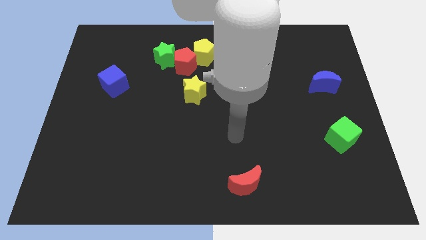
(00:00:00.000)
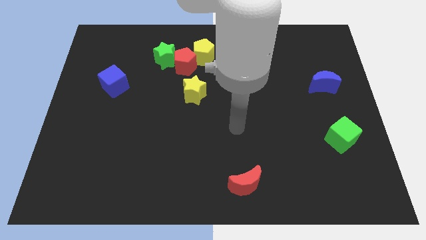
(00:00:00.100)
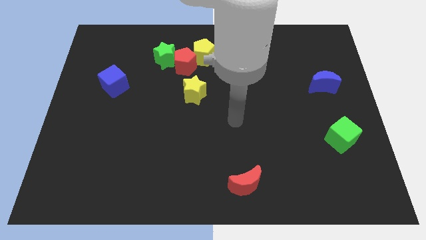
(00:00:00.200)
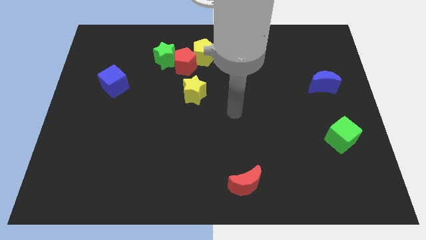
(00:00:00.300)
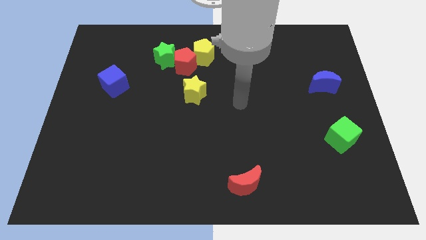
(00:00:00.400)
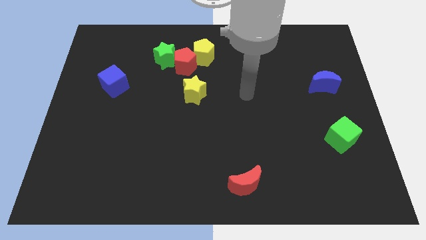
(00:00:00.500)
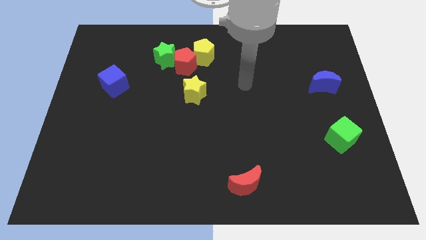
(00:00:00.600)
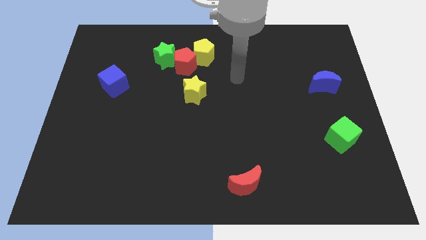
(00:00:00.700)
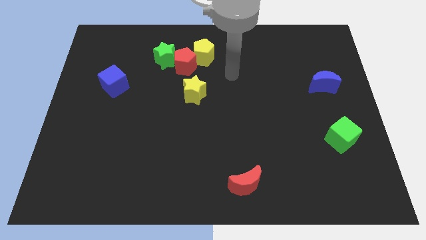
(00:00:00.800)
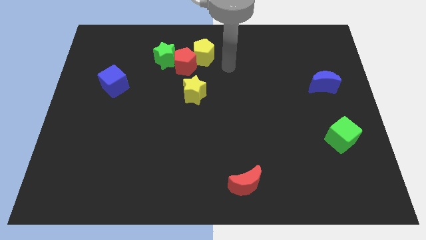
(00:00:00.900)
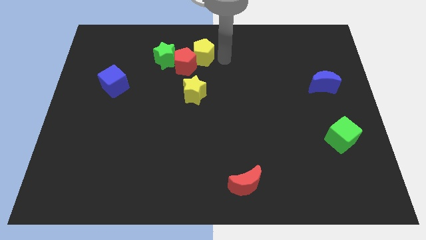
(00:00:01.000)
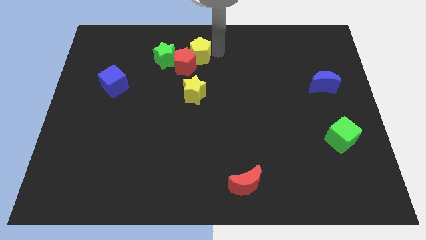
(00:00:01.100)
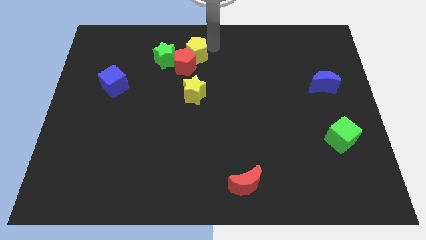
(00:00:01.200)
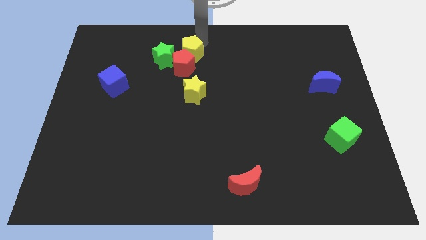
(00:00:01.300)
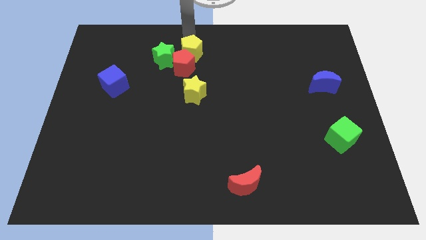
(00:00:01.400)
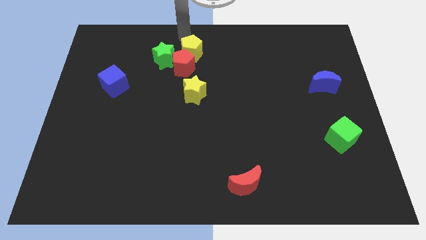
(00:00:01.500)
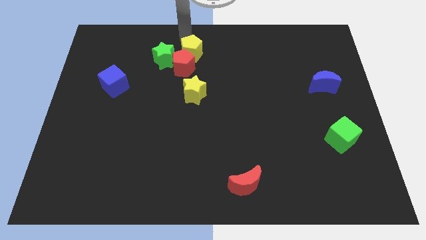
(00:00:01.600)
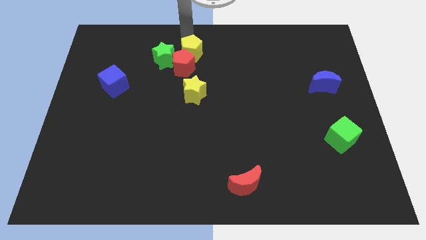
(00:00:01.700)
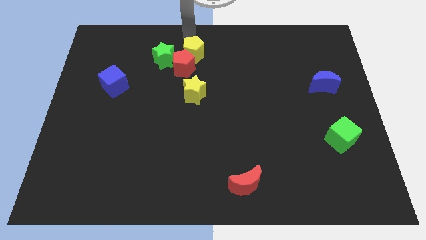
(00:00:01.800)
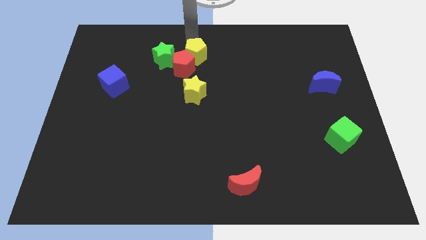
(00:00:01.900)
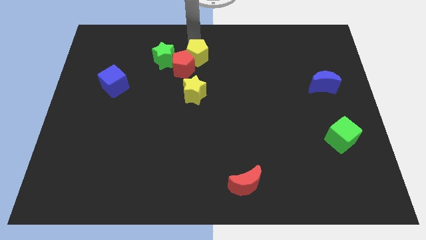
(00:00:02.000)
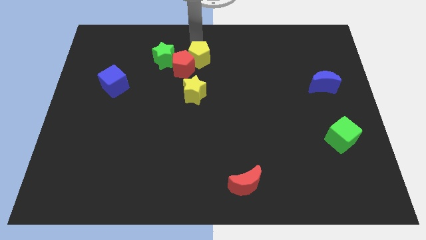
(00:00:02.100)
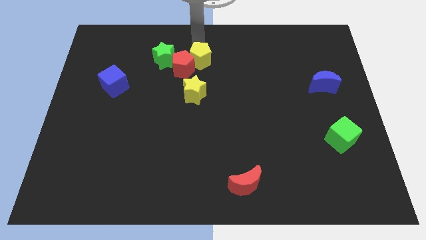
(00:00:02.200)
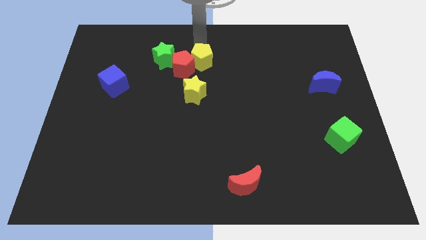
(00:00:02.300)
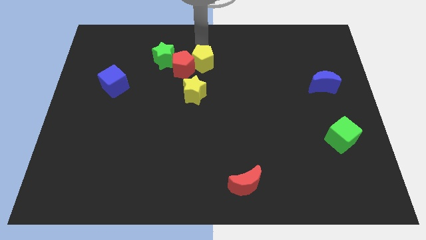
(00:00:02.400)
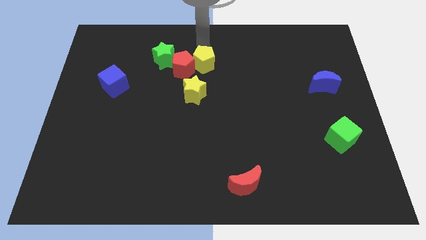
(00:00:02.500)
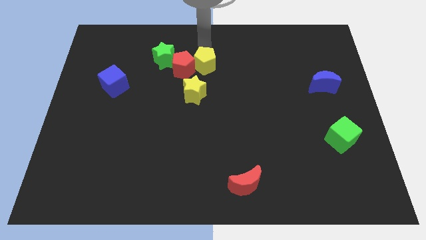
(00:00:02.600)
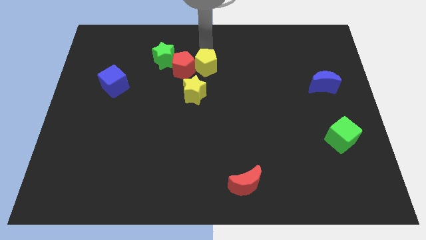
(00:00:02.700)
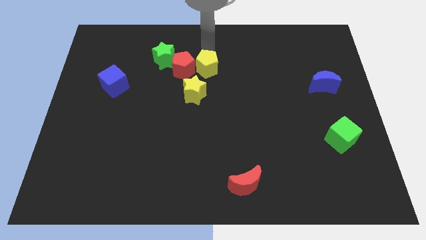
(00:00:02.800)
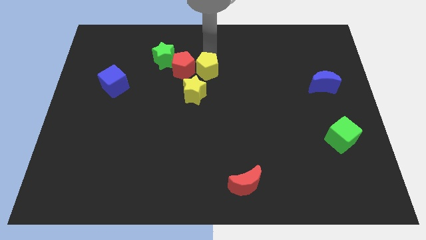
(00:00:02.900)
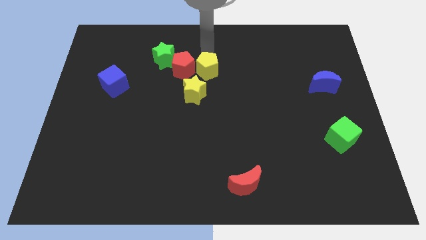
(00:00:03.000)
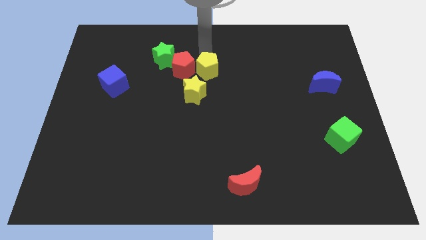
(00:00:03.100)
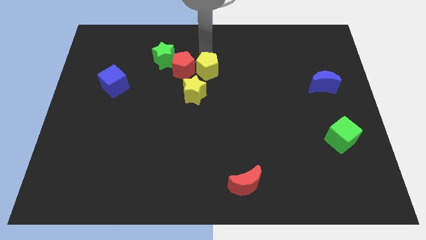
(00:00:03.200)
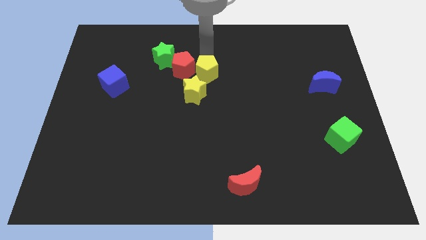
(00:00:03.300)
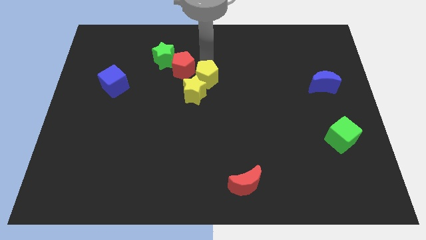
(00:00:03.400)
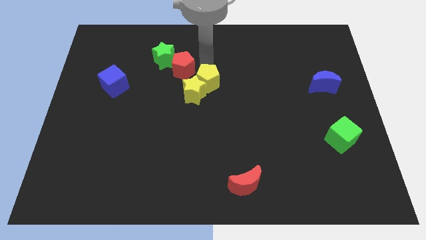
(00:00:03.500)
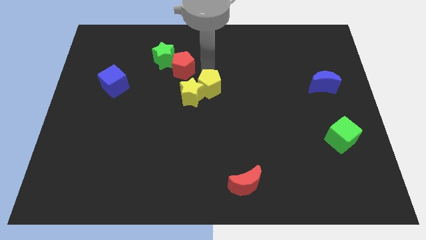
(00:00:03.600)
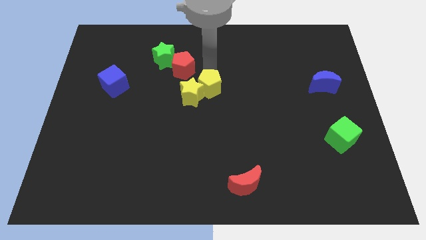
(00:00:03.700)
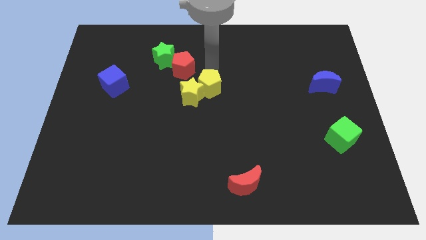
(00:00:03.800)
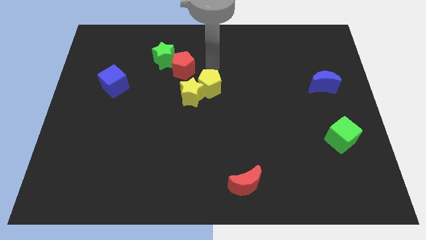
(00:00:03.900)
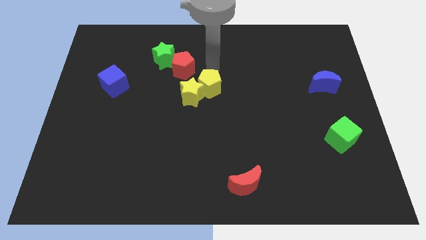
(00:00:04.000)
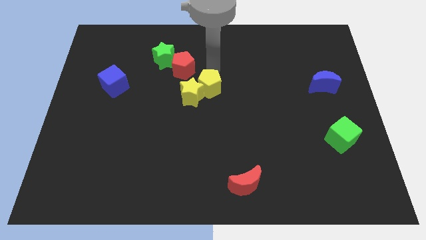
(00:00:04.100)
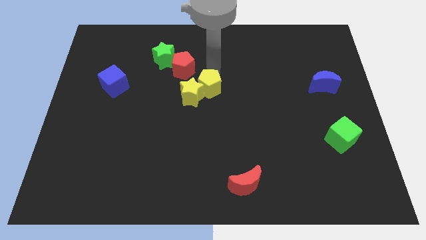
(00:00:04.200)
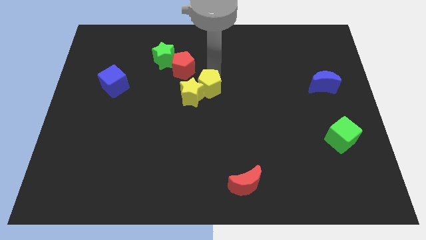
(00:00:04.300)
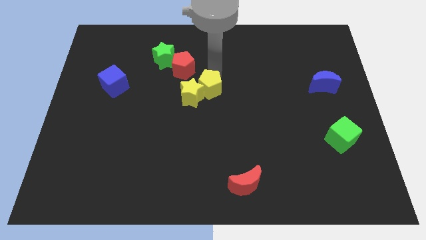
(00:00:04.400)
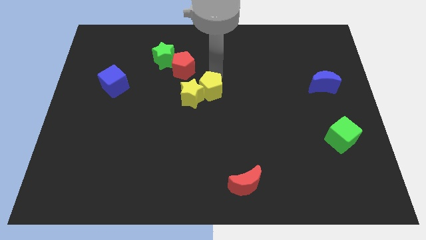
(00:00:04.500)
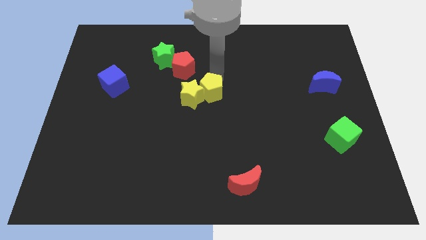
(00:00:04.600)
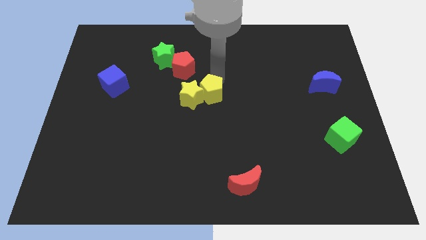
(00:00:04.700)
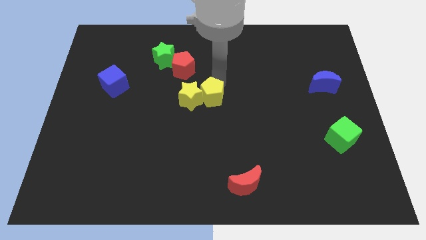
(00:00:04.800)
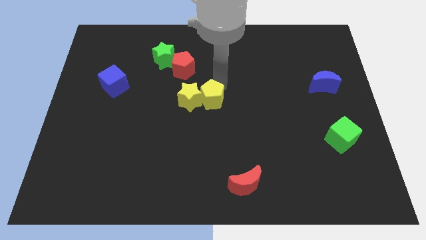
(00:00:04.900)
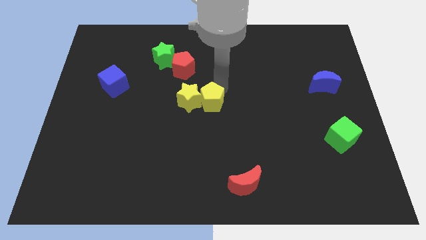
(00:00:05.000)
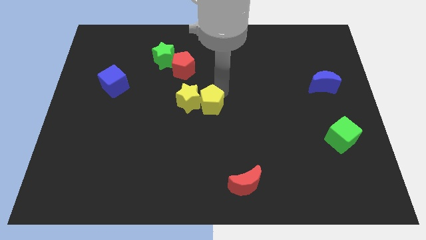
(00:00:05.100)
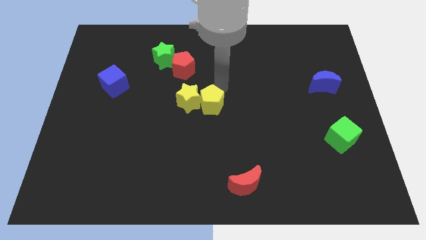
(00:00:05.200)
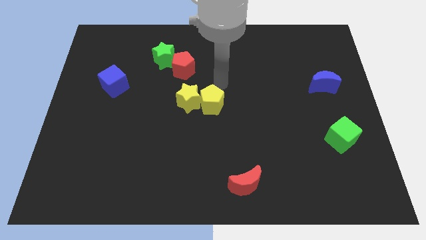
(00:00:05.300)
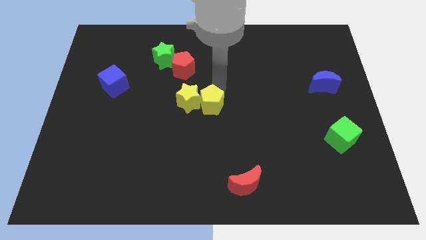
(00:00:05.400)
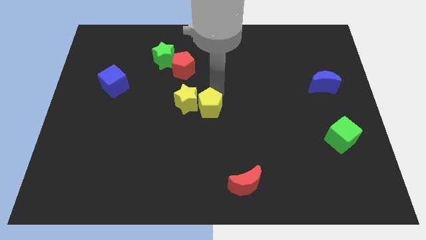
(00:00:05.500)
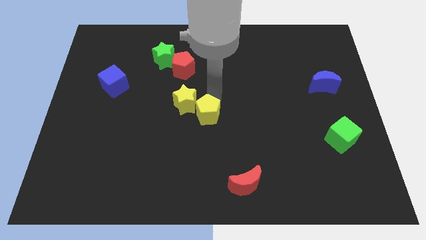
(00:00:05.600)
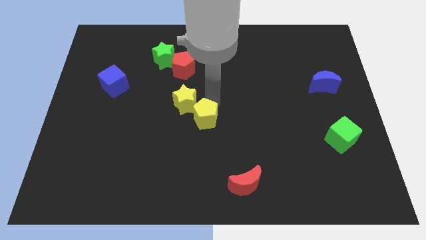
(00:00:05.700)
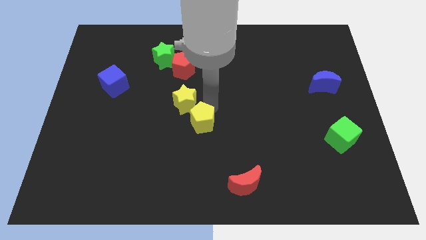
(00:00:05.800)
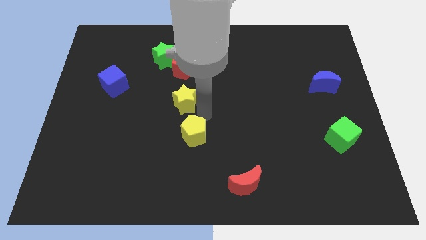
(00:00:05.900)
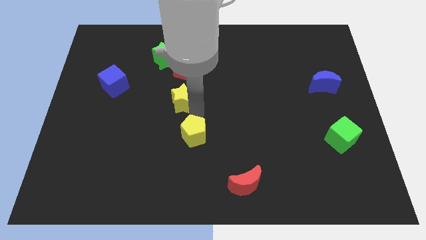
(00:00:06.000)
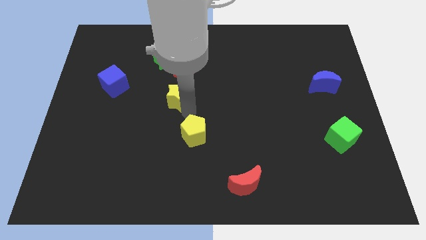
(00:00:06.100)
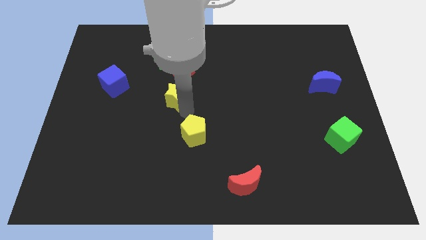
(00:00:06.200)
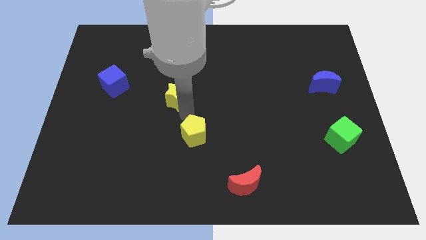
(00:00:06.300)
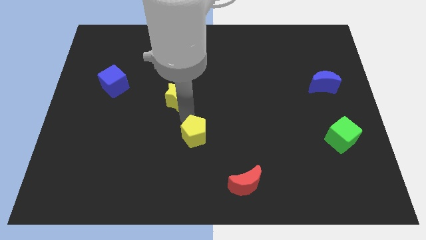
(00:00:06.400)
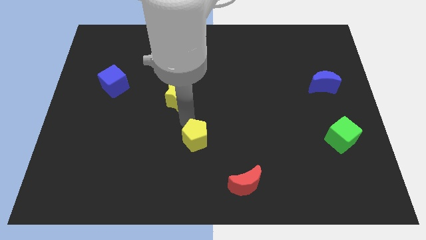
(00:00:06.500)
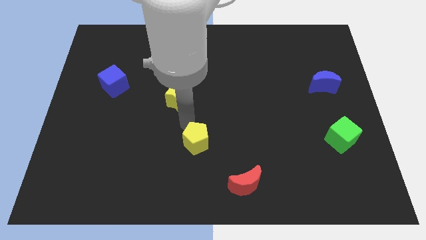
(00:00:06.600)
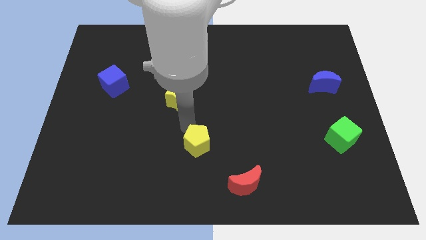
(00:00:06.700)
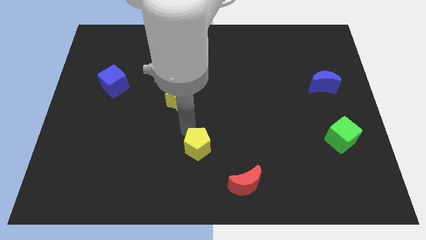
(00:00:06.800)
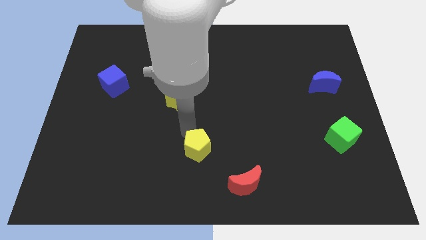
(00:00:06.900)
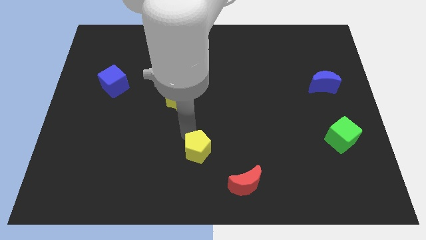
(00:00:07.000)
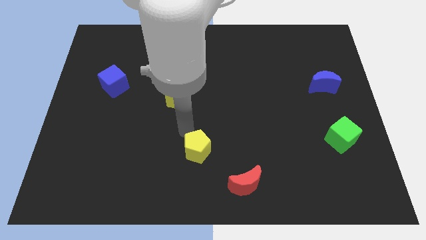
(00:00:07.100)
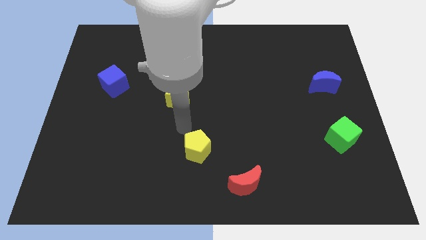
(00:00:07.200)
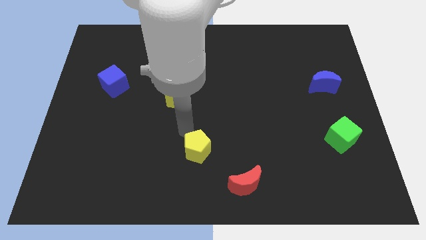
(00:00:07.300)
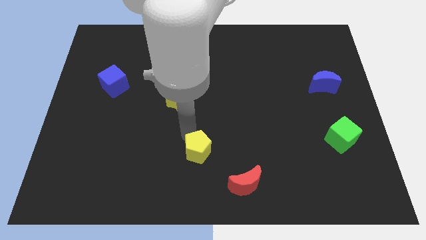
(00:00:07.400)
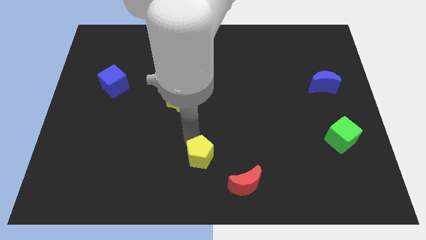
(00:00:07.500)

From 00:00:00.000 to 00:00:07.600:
push the yellow pentagon to the bottom side
